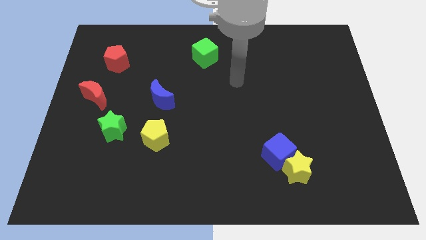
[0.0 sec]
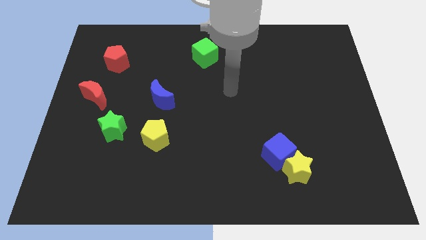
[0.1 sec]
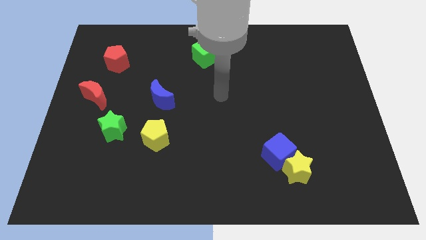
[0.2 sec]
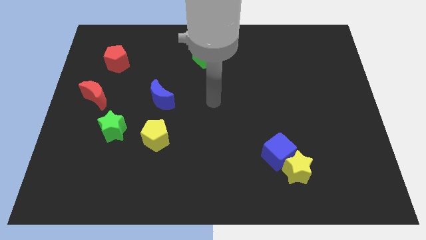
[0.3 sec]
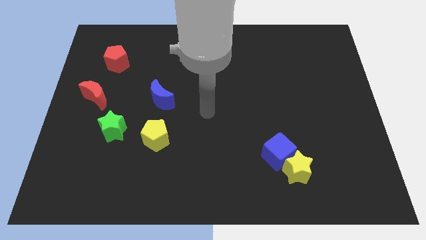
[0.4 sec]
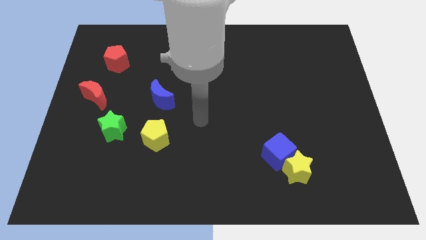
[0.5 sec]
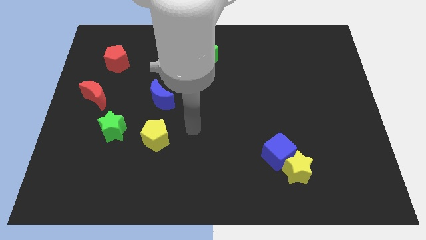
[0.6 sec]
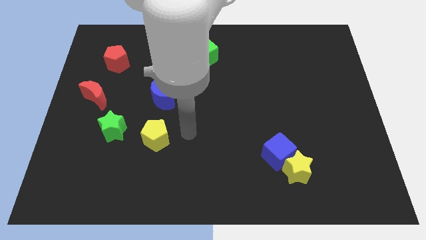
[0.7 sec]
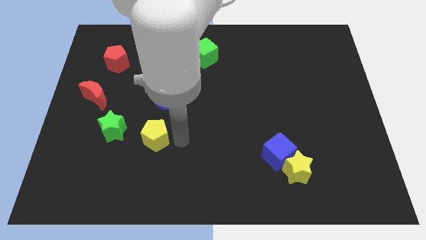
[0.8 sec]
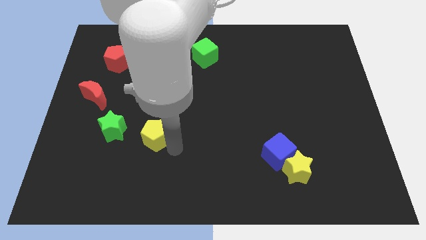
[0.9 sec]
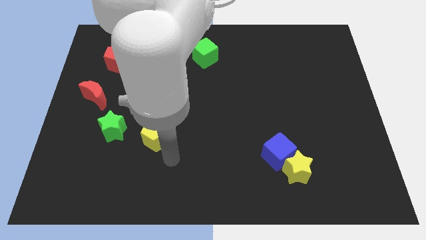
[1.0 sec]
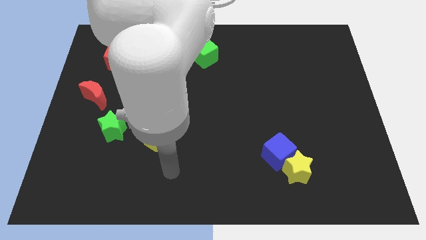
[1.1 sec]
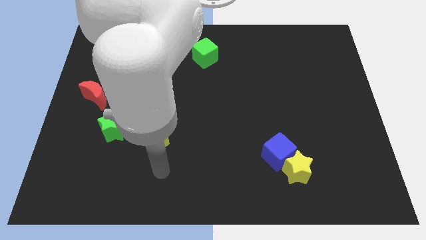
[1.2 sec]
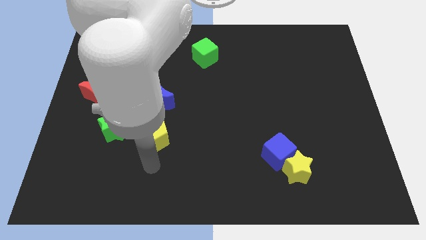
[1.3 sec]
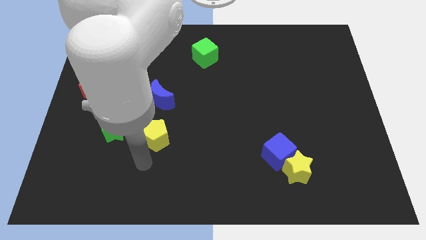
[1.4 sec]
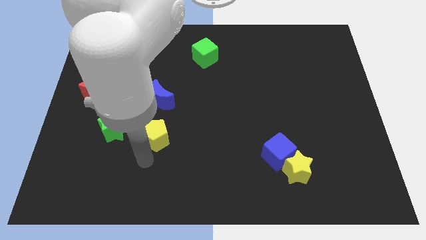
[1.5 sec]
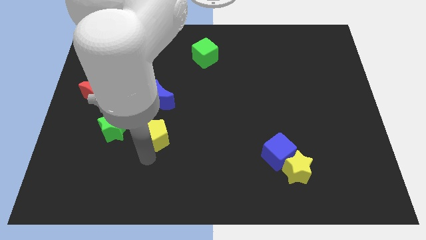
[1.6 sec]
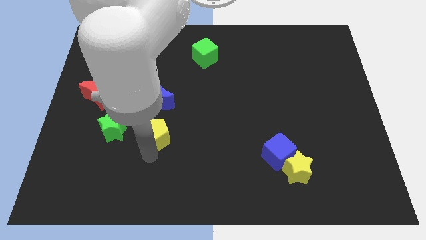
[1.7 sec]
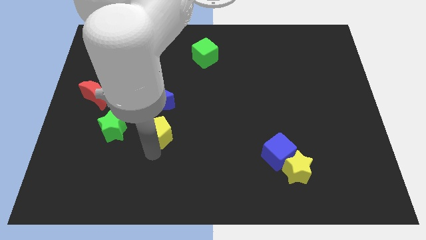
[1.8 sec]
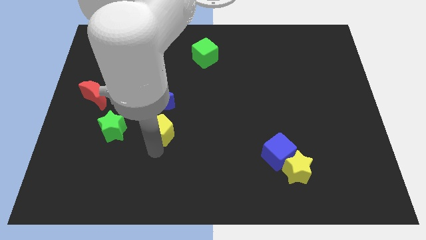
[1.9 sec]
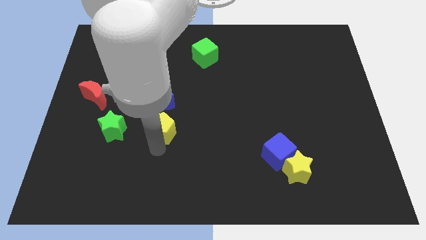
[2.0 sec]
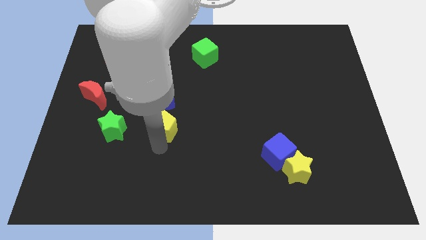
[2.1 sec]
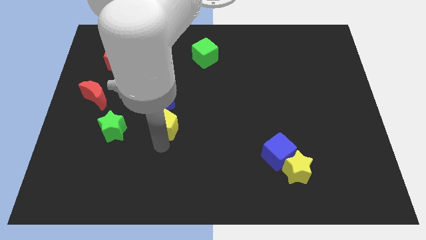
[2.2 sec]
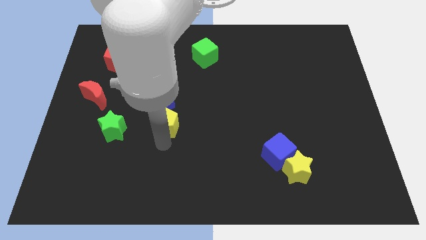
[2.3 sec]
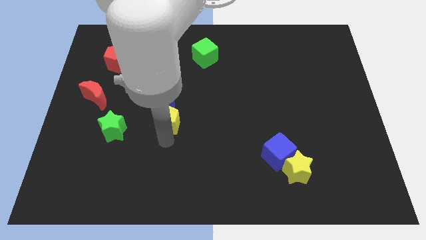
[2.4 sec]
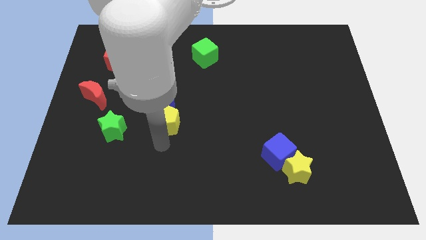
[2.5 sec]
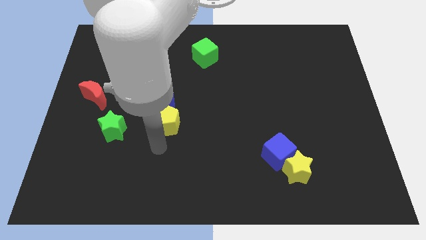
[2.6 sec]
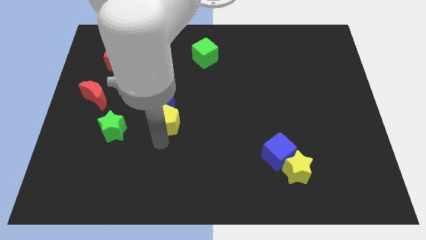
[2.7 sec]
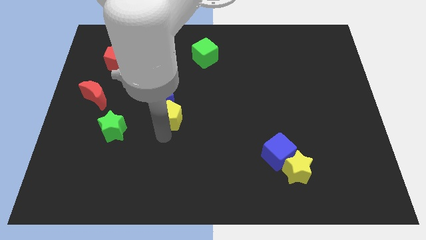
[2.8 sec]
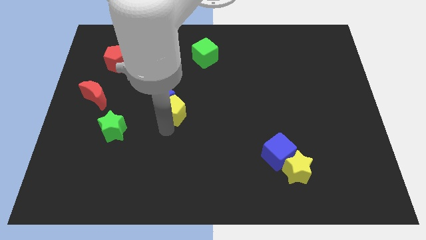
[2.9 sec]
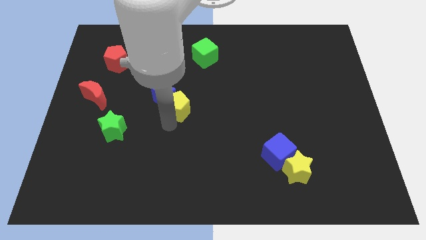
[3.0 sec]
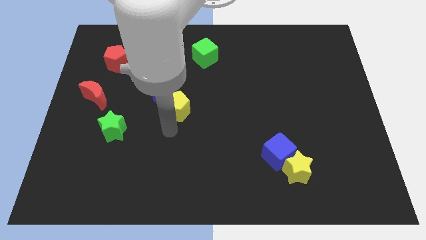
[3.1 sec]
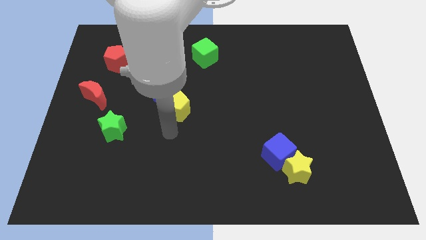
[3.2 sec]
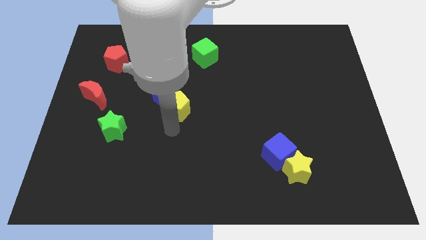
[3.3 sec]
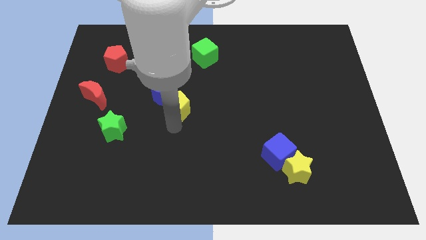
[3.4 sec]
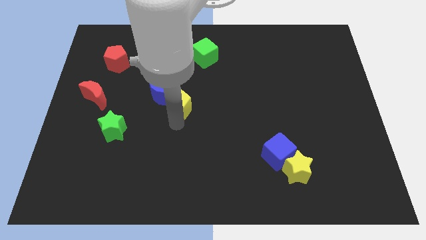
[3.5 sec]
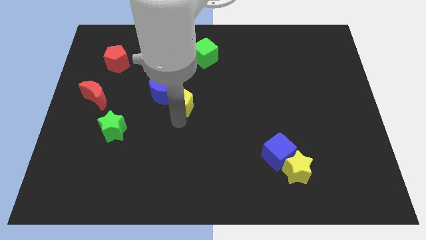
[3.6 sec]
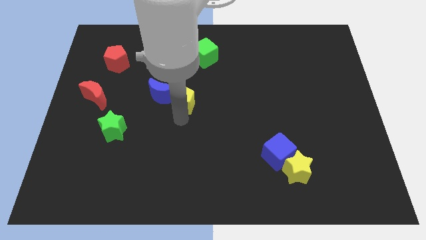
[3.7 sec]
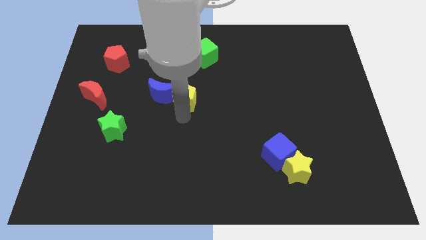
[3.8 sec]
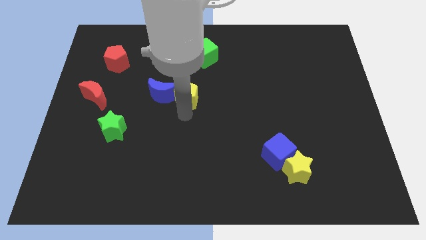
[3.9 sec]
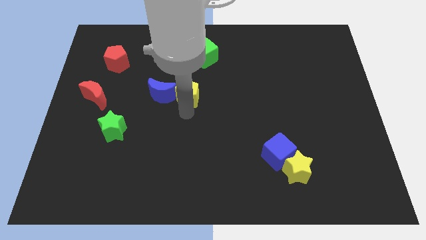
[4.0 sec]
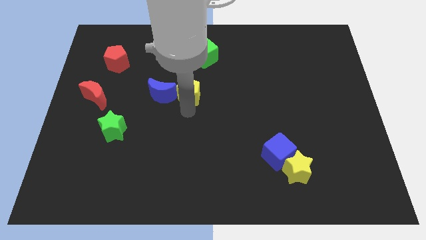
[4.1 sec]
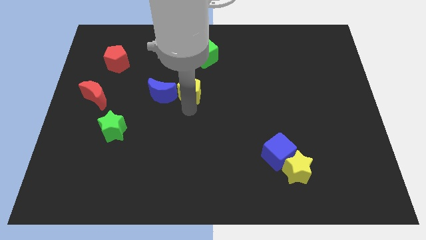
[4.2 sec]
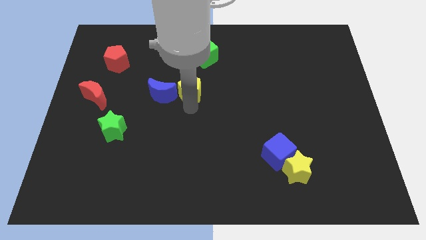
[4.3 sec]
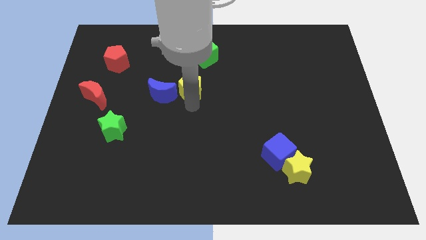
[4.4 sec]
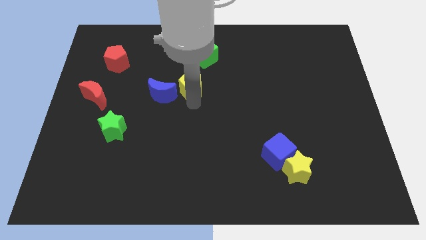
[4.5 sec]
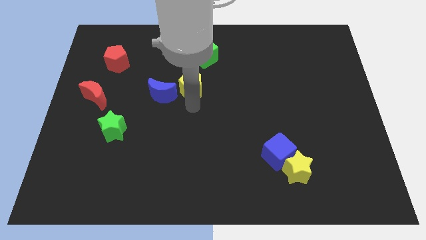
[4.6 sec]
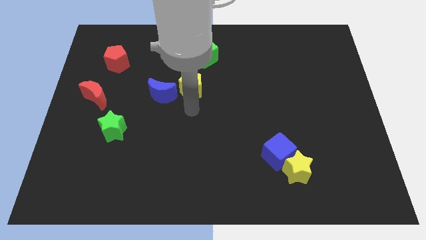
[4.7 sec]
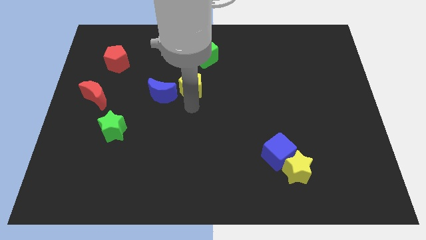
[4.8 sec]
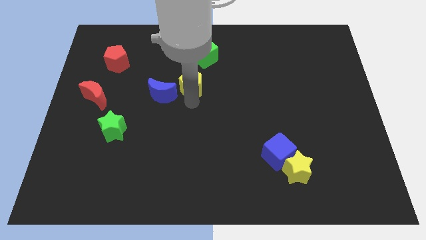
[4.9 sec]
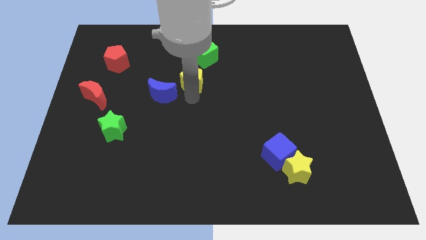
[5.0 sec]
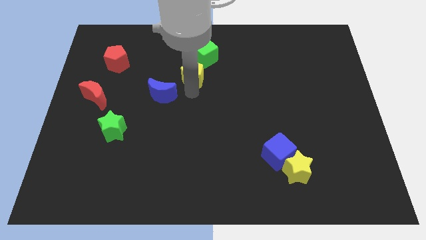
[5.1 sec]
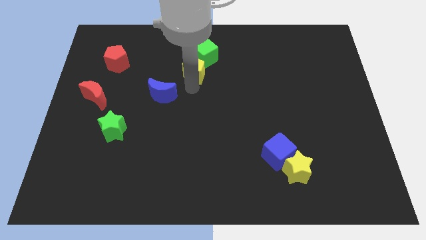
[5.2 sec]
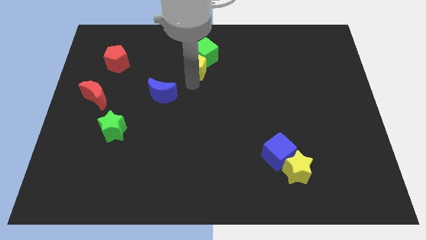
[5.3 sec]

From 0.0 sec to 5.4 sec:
push the yellow pentagon next to the green cube

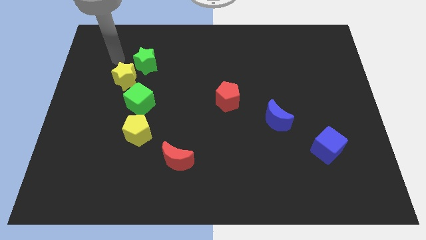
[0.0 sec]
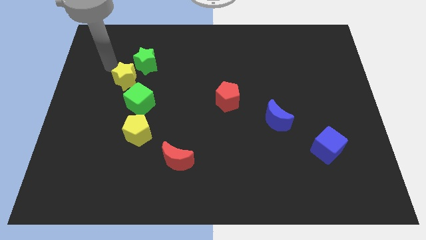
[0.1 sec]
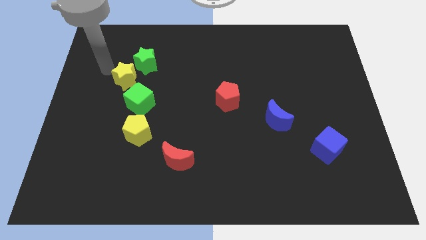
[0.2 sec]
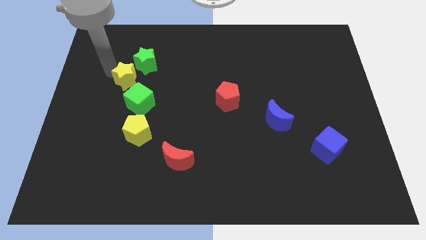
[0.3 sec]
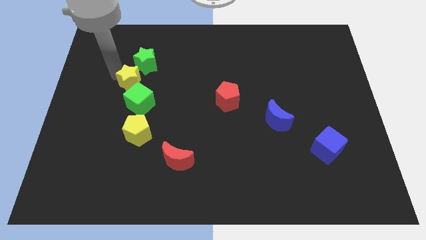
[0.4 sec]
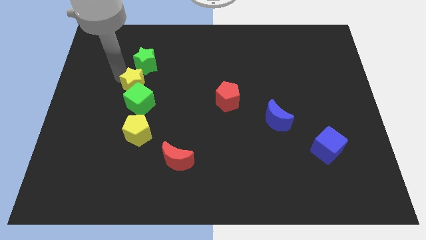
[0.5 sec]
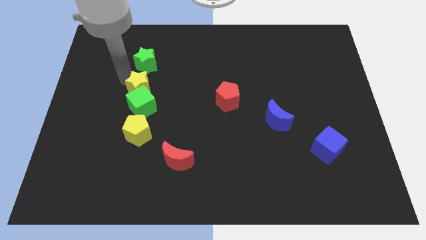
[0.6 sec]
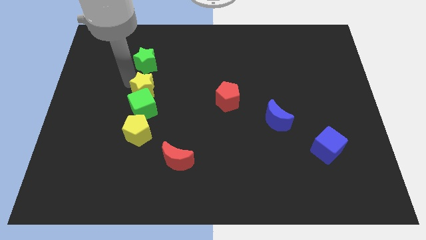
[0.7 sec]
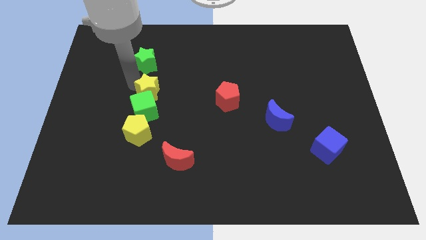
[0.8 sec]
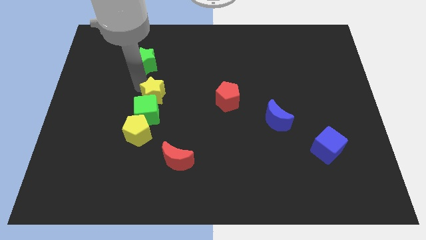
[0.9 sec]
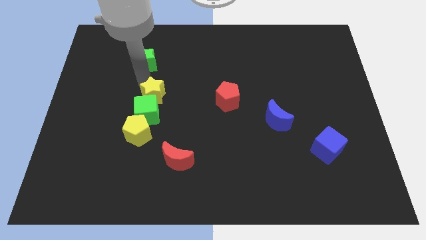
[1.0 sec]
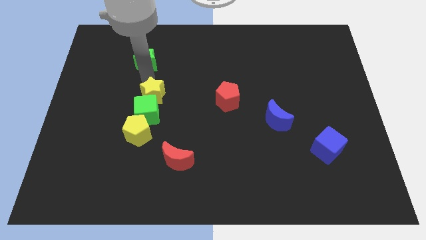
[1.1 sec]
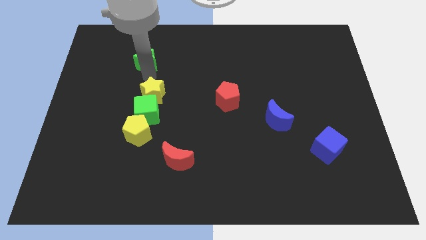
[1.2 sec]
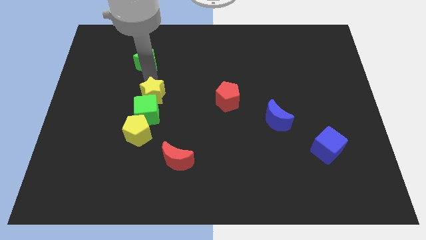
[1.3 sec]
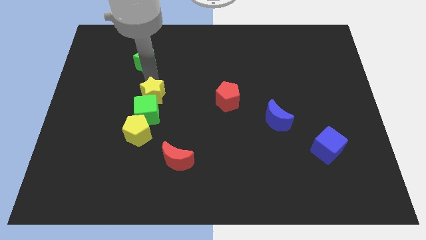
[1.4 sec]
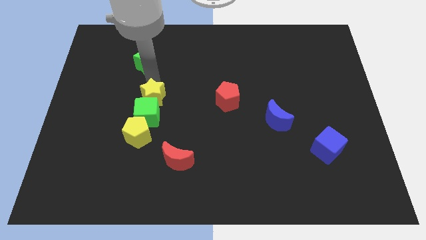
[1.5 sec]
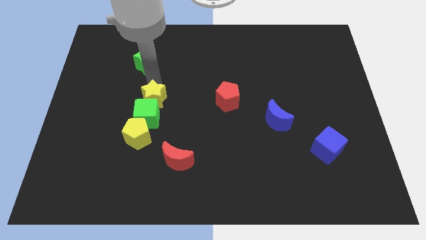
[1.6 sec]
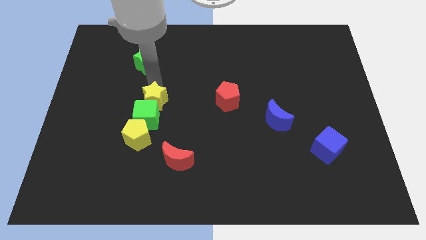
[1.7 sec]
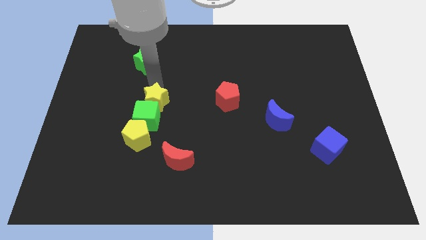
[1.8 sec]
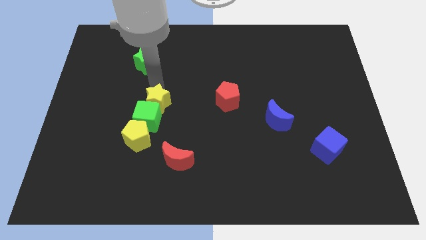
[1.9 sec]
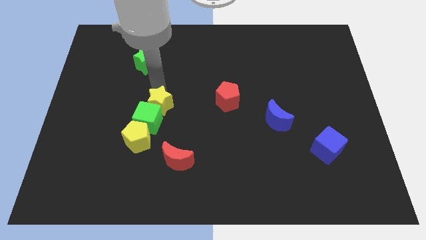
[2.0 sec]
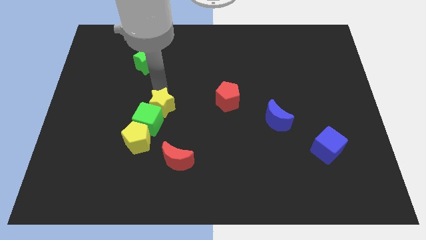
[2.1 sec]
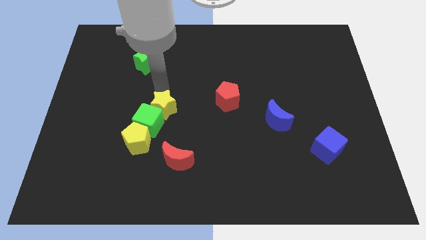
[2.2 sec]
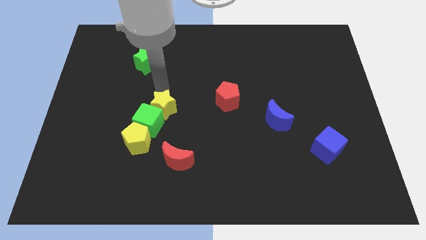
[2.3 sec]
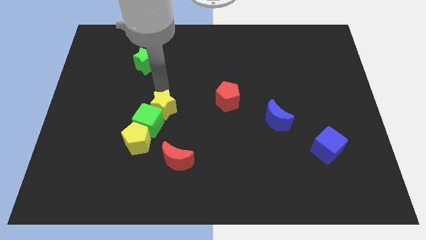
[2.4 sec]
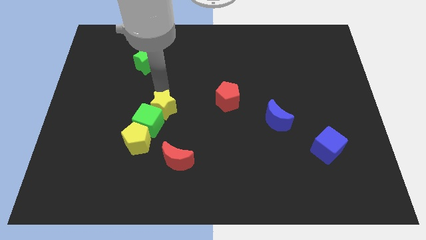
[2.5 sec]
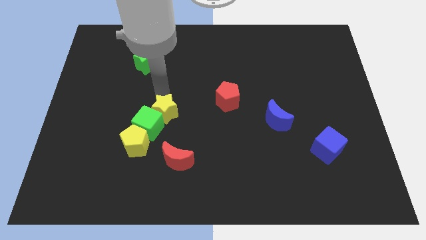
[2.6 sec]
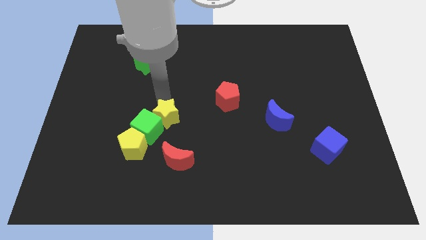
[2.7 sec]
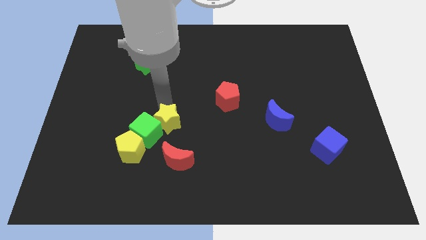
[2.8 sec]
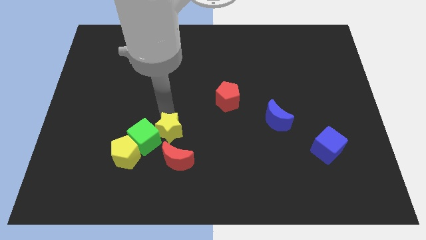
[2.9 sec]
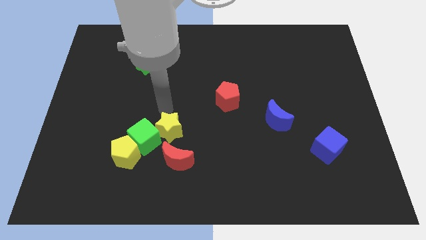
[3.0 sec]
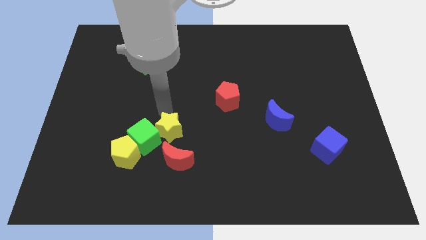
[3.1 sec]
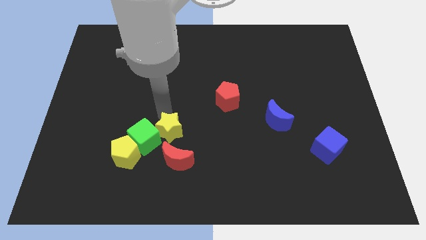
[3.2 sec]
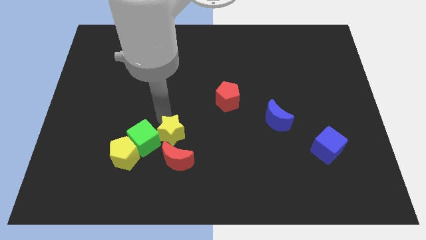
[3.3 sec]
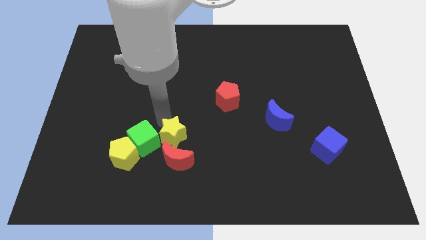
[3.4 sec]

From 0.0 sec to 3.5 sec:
move the yellow star next to the red moon
